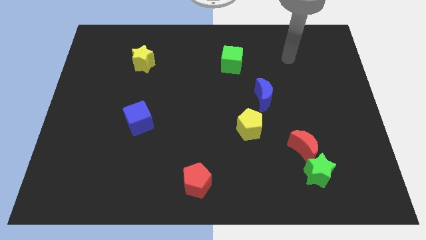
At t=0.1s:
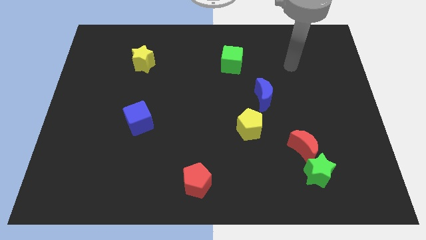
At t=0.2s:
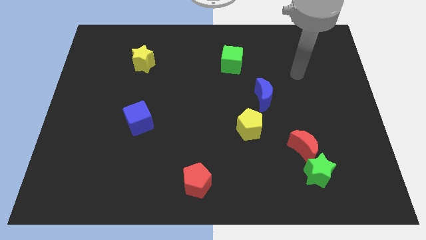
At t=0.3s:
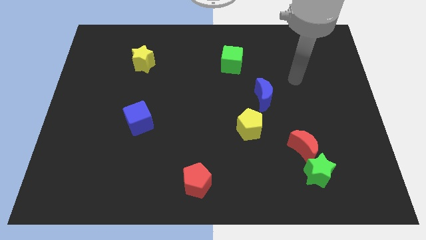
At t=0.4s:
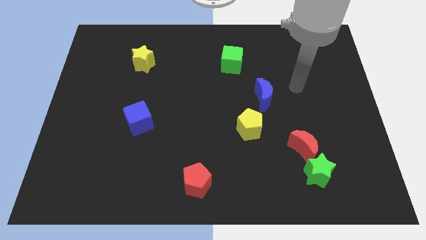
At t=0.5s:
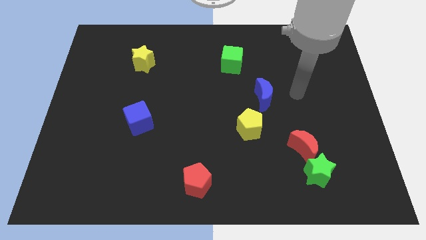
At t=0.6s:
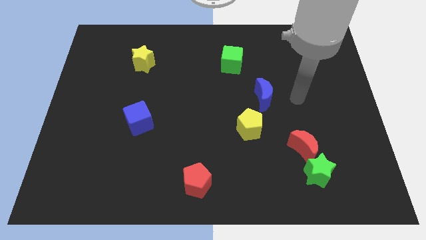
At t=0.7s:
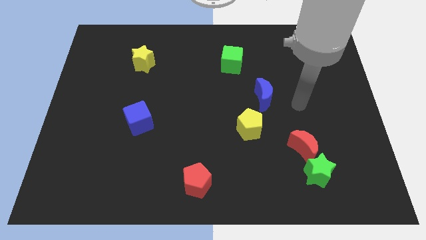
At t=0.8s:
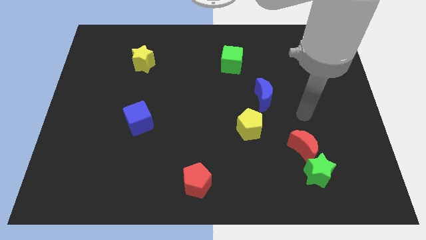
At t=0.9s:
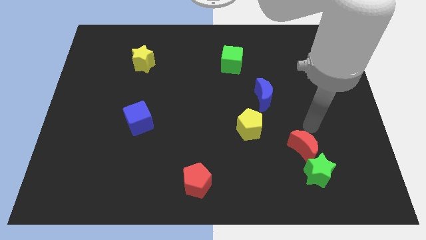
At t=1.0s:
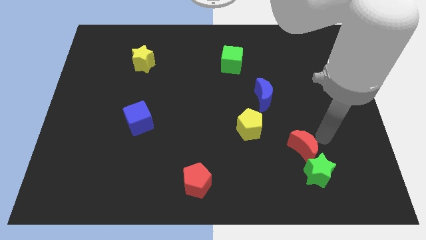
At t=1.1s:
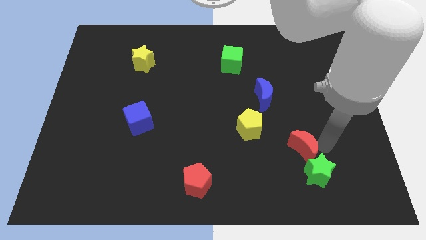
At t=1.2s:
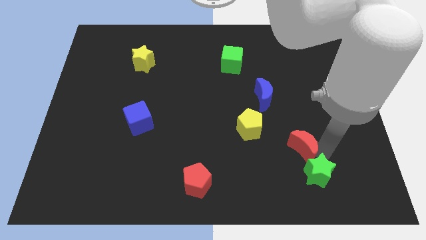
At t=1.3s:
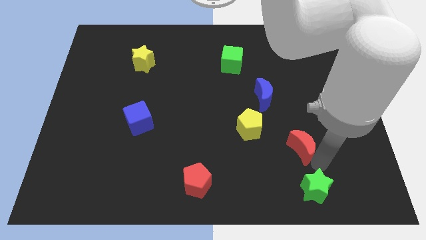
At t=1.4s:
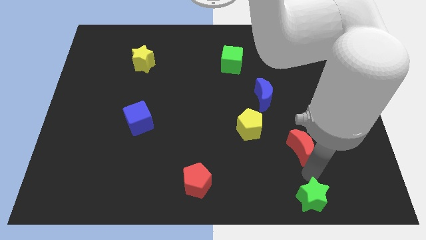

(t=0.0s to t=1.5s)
pull the red moon apart from the green star

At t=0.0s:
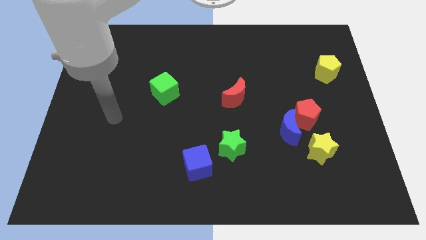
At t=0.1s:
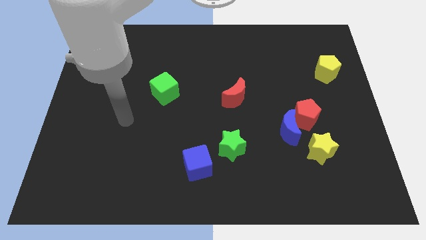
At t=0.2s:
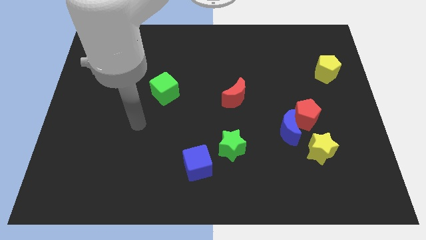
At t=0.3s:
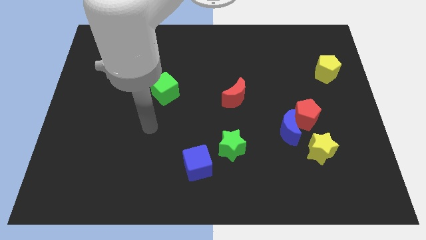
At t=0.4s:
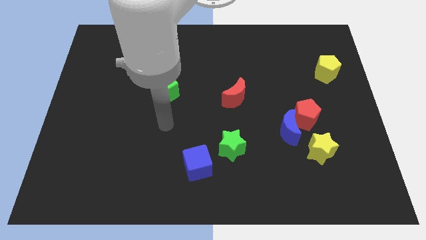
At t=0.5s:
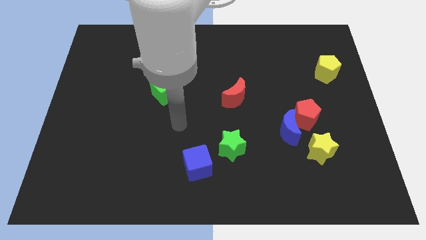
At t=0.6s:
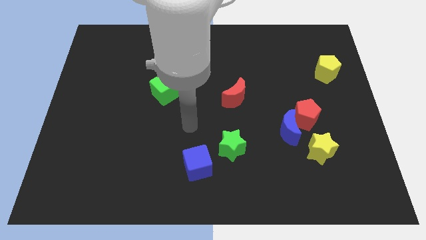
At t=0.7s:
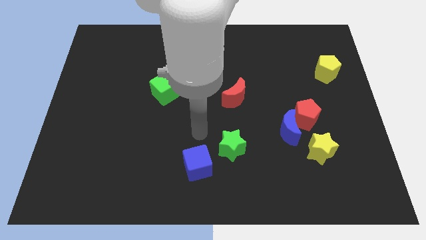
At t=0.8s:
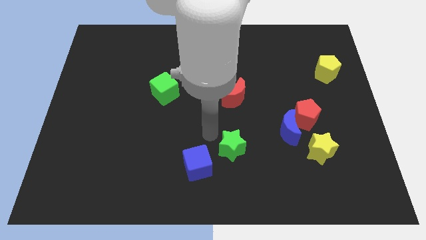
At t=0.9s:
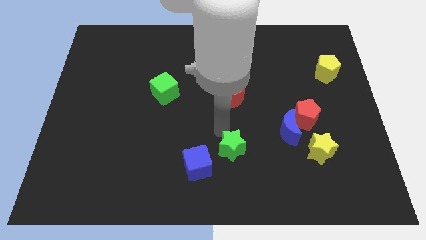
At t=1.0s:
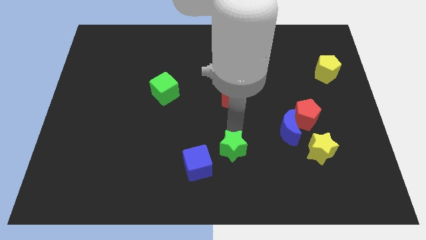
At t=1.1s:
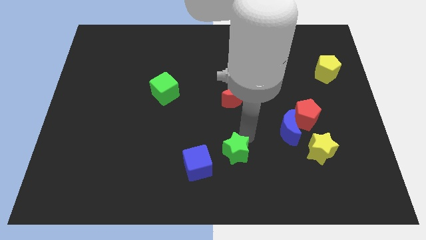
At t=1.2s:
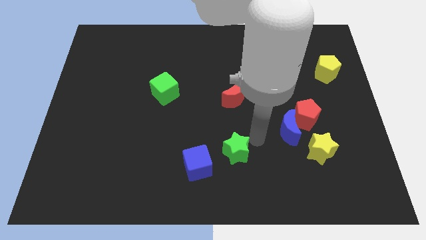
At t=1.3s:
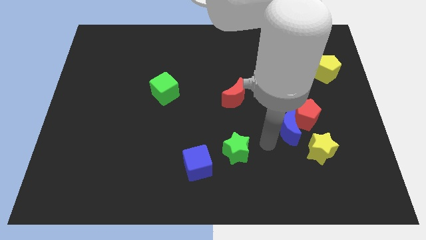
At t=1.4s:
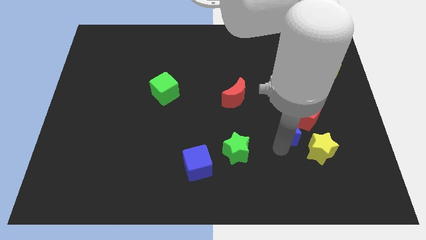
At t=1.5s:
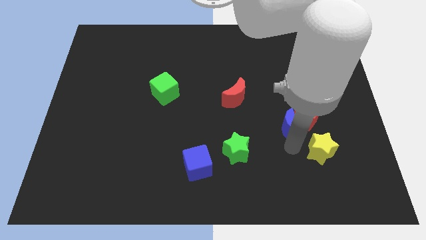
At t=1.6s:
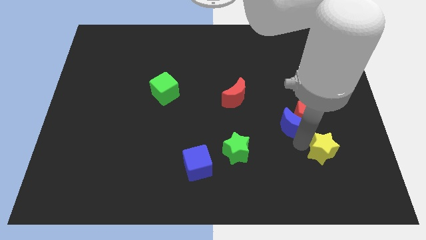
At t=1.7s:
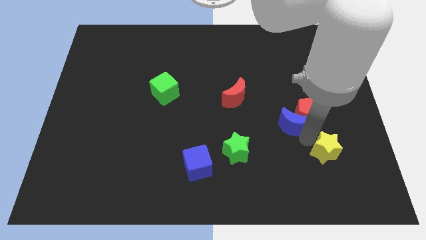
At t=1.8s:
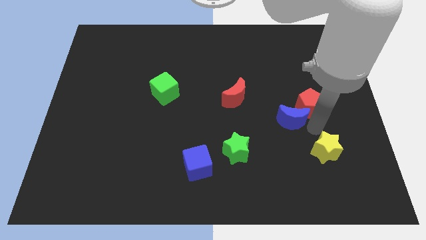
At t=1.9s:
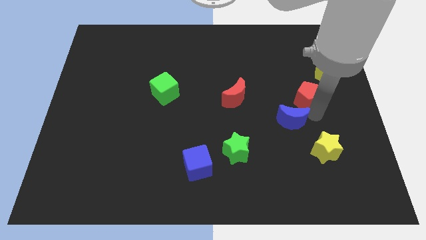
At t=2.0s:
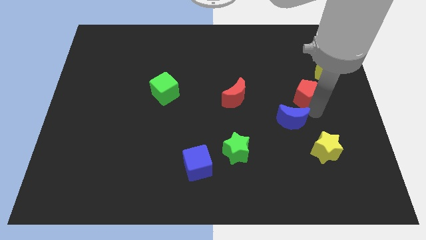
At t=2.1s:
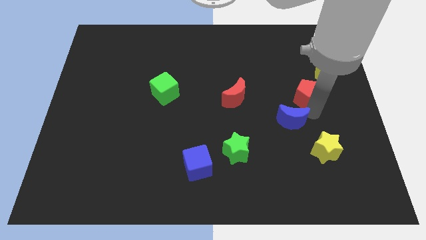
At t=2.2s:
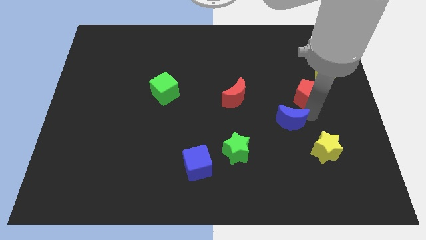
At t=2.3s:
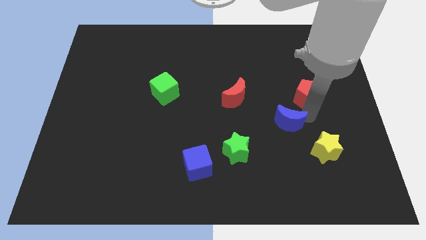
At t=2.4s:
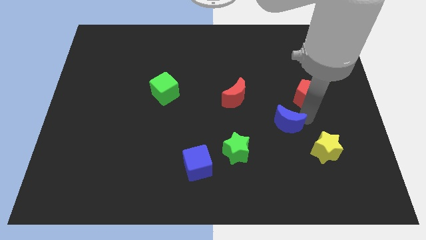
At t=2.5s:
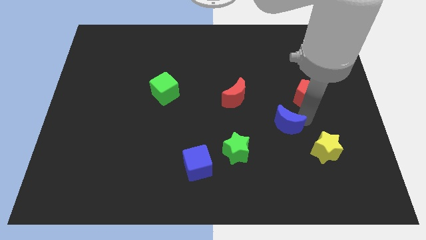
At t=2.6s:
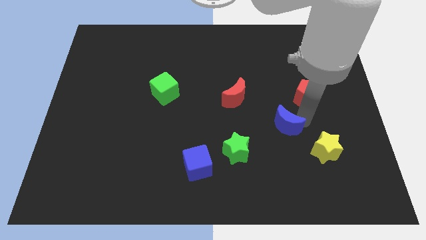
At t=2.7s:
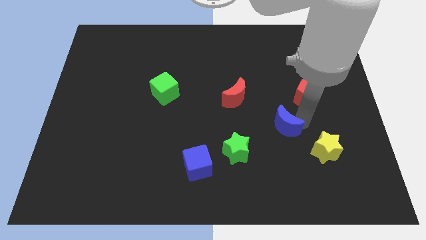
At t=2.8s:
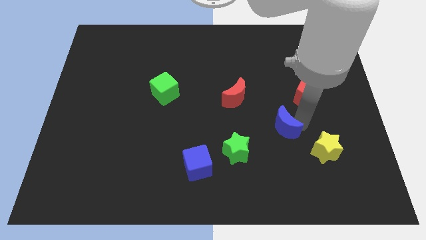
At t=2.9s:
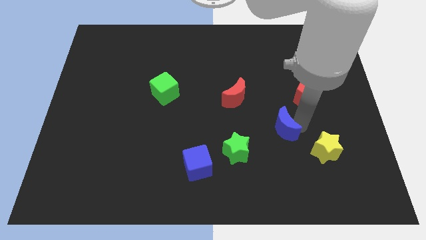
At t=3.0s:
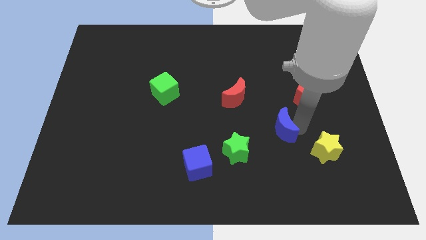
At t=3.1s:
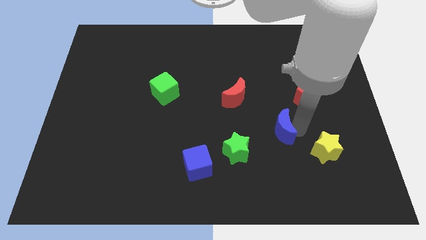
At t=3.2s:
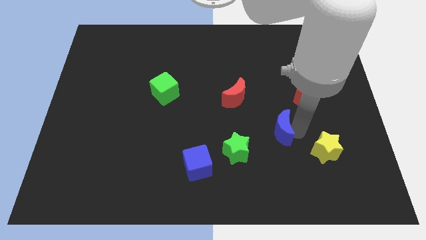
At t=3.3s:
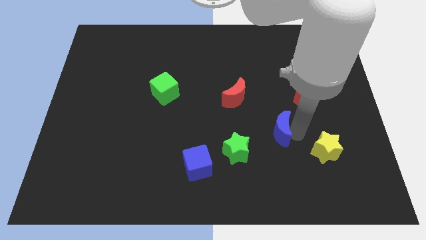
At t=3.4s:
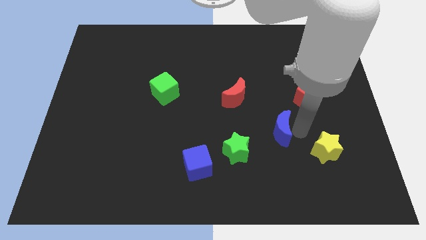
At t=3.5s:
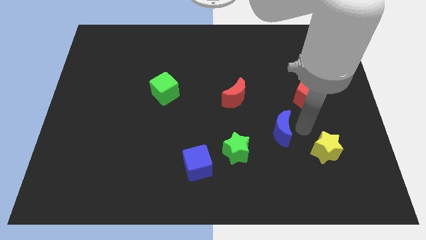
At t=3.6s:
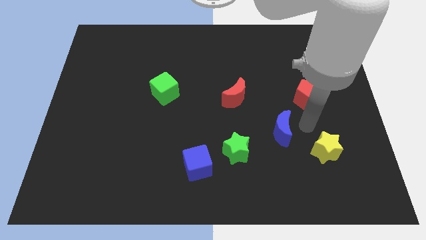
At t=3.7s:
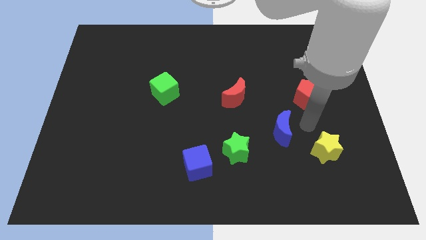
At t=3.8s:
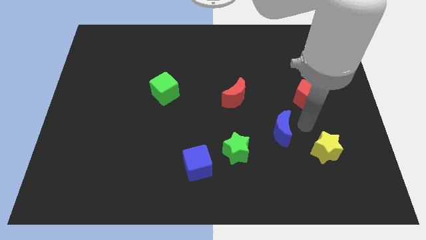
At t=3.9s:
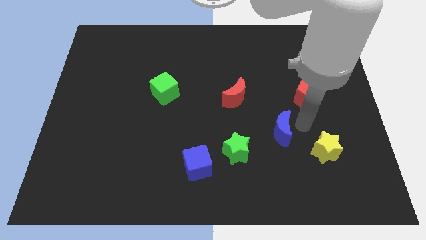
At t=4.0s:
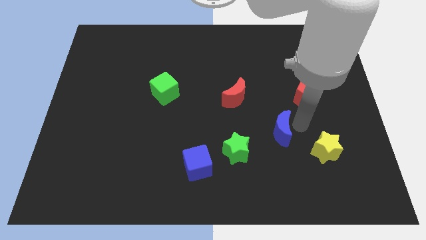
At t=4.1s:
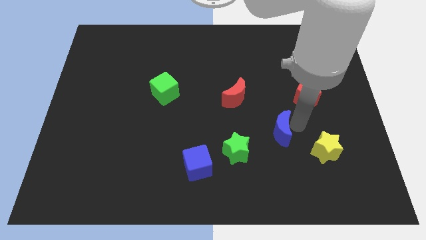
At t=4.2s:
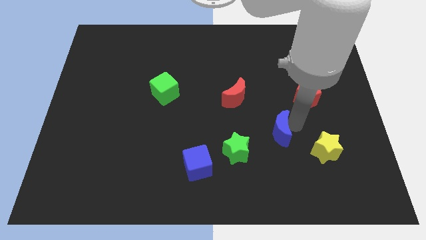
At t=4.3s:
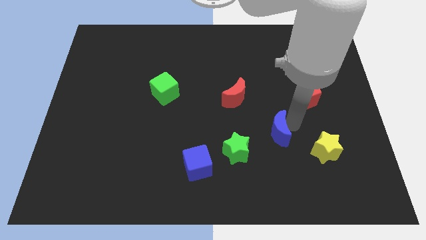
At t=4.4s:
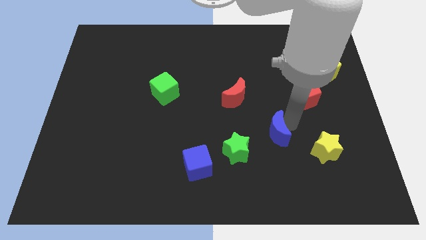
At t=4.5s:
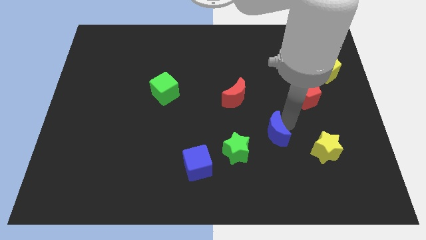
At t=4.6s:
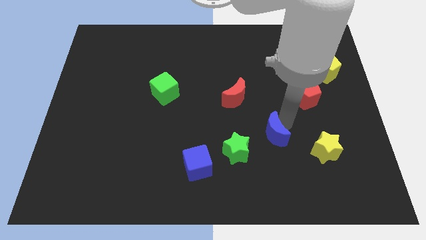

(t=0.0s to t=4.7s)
pull the blue moon apart from the red pentagon and yellow star

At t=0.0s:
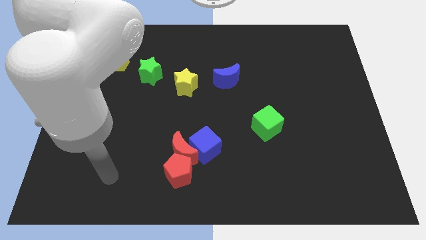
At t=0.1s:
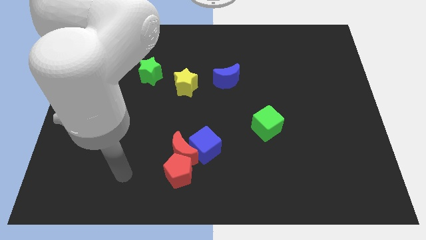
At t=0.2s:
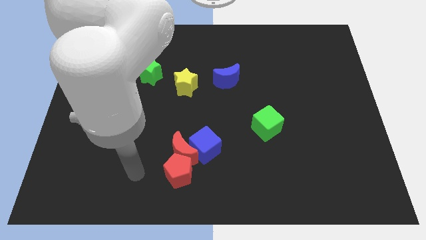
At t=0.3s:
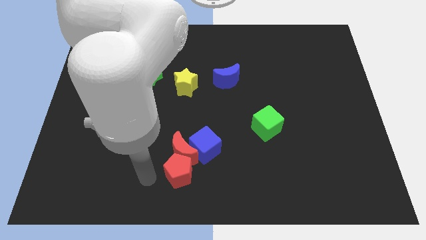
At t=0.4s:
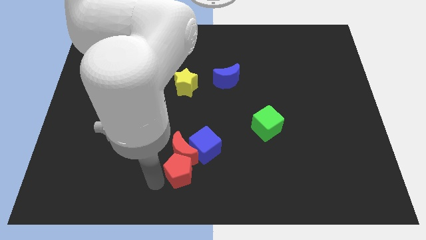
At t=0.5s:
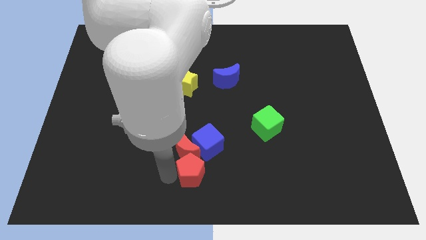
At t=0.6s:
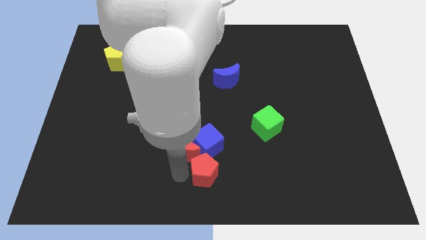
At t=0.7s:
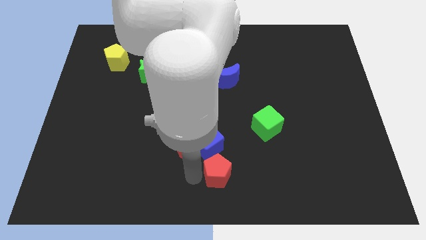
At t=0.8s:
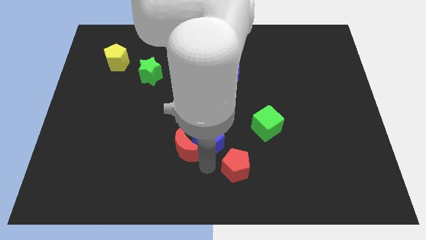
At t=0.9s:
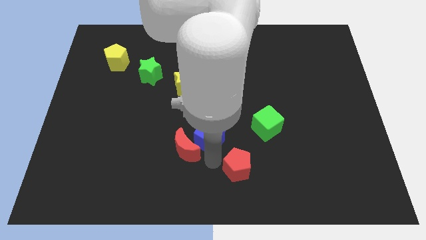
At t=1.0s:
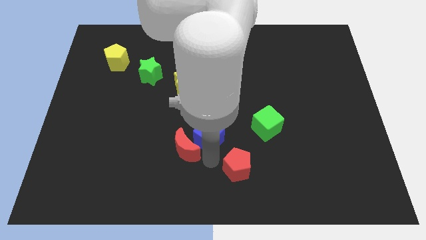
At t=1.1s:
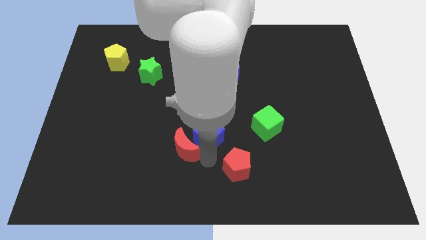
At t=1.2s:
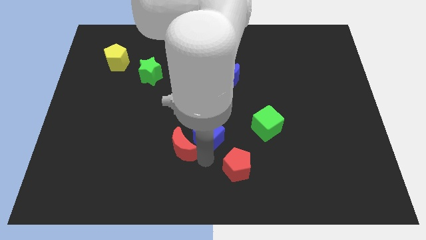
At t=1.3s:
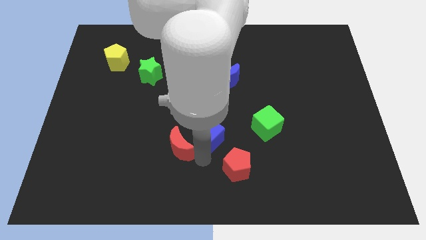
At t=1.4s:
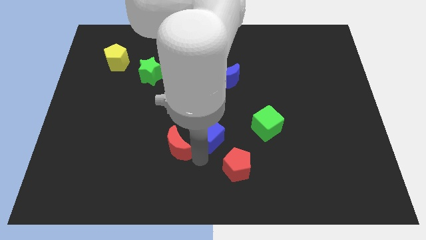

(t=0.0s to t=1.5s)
pull the red moon apart from the red pentagon and blue cube

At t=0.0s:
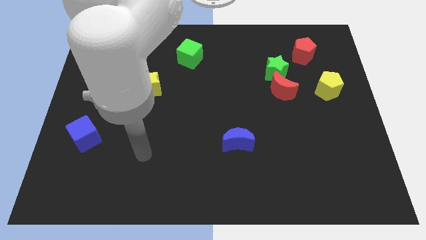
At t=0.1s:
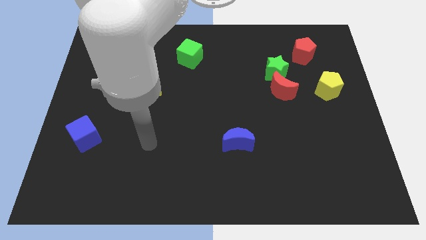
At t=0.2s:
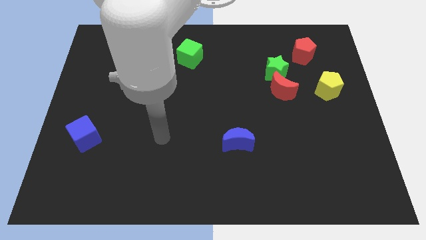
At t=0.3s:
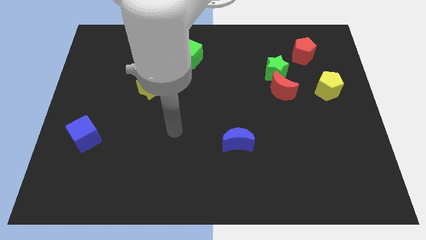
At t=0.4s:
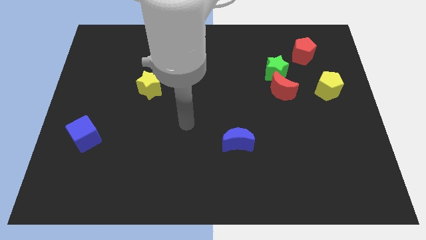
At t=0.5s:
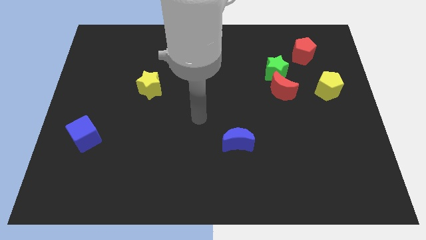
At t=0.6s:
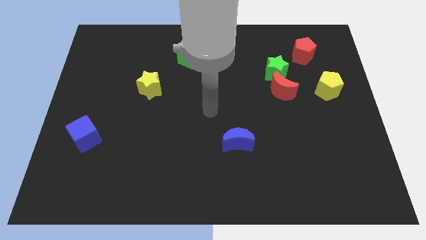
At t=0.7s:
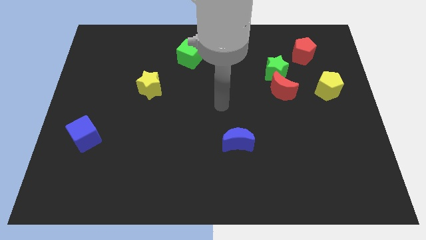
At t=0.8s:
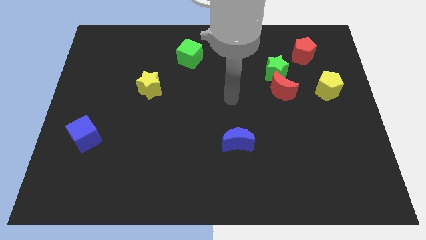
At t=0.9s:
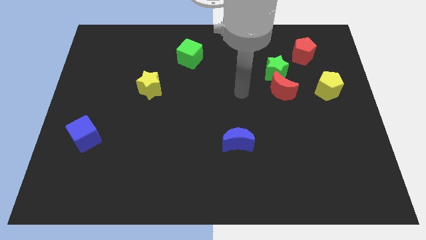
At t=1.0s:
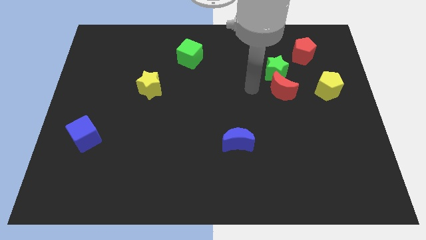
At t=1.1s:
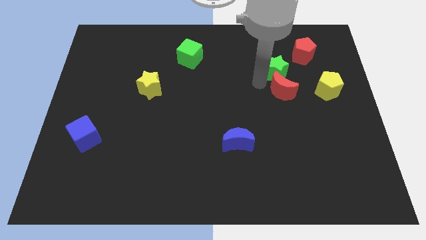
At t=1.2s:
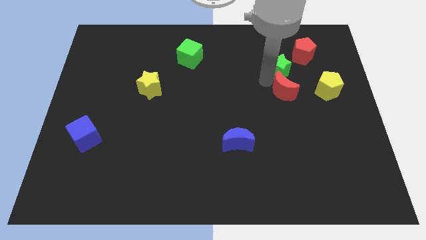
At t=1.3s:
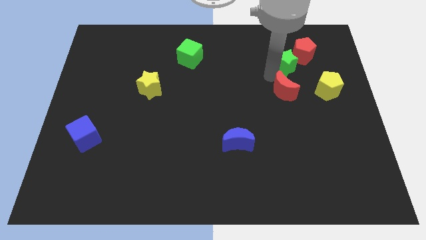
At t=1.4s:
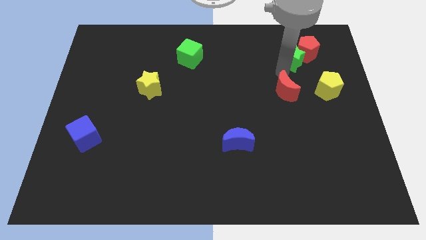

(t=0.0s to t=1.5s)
move the red moon away from the green star
